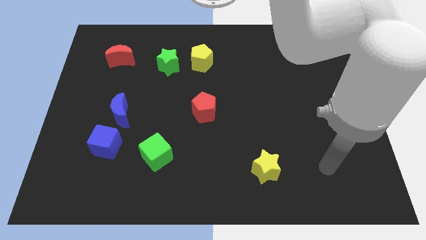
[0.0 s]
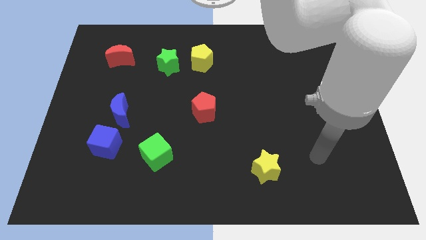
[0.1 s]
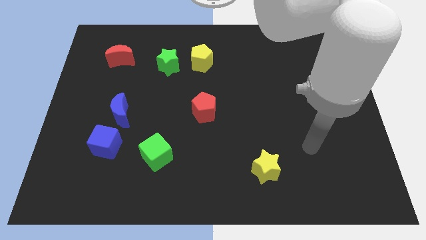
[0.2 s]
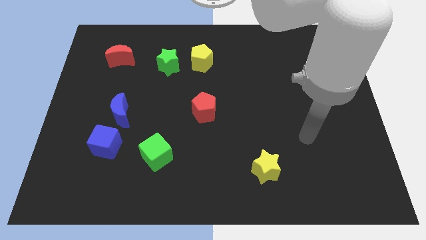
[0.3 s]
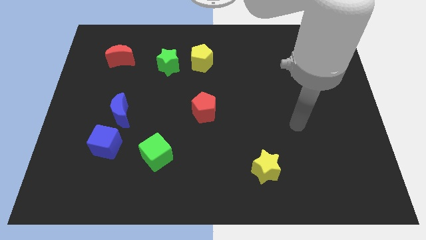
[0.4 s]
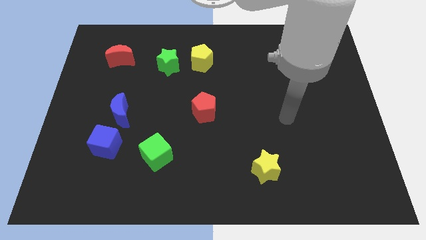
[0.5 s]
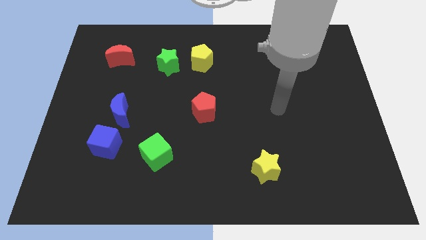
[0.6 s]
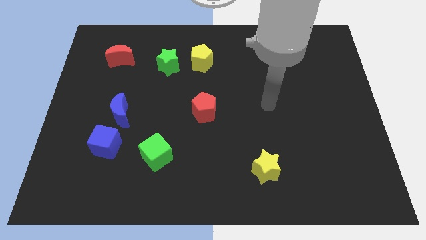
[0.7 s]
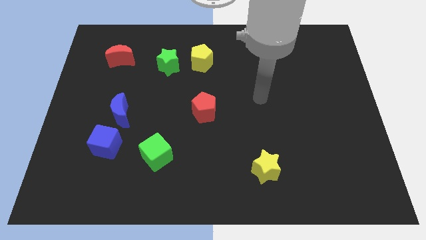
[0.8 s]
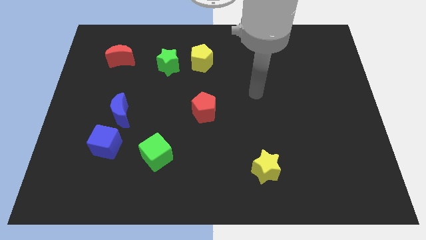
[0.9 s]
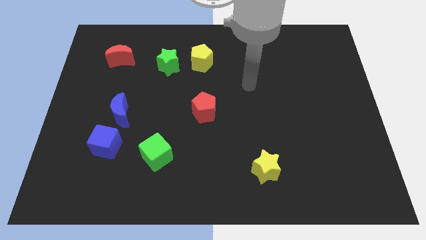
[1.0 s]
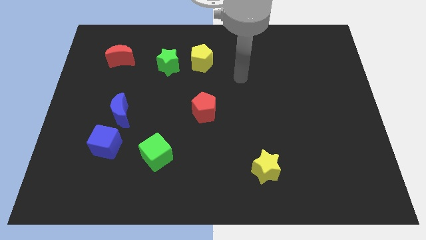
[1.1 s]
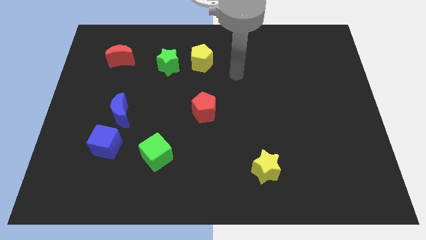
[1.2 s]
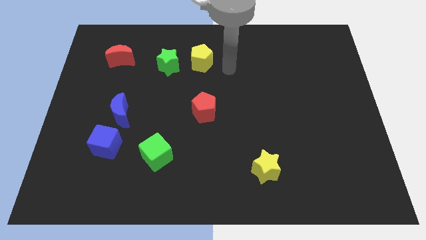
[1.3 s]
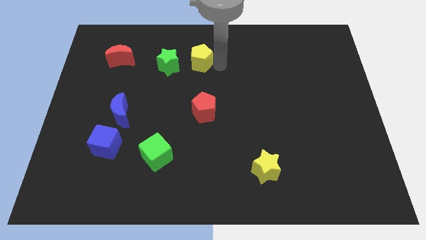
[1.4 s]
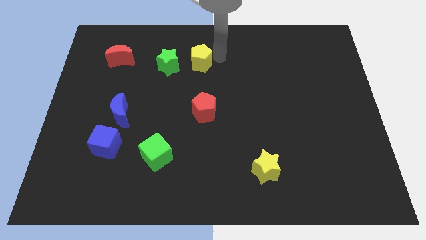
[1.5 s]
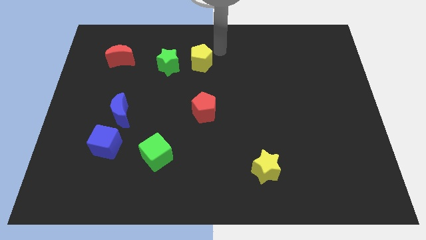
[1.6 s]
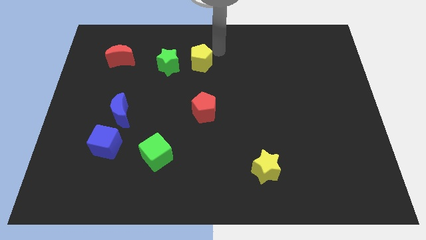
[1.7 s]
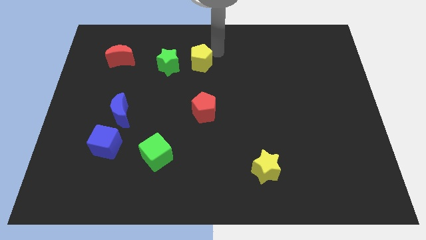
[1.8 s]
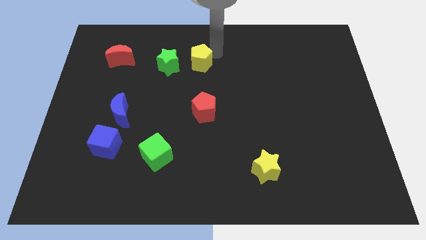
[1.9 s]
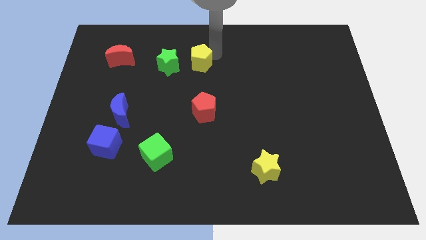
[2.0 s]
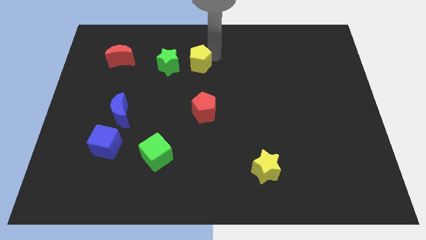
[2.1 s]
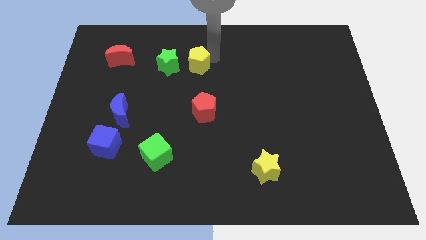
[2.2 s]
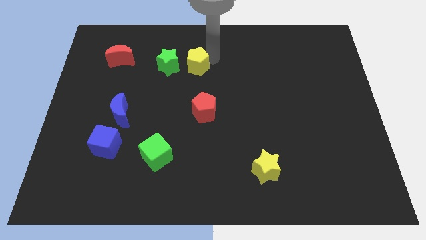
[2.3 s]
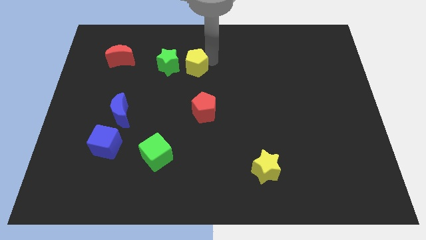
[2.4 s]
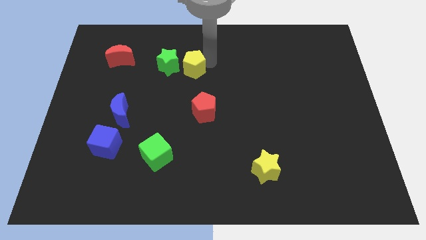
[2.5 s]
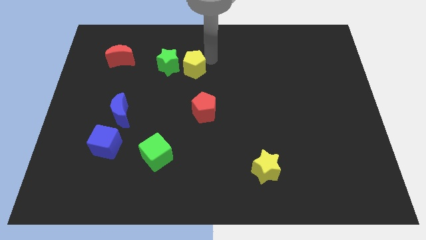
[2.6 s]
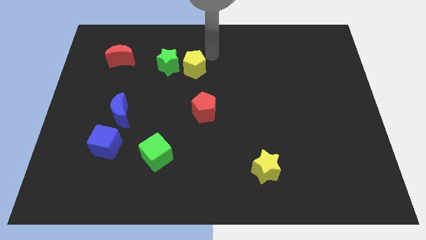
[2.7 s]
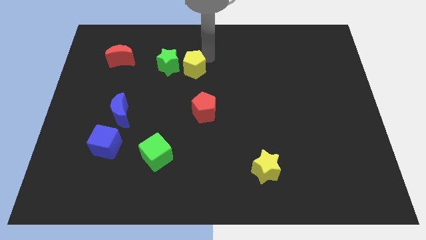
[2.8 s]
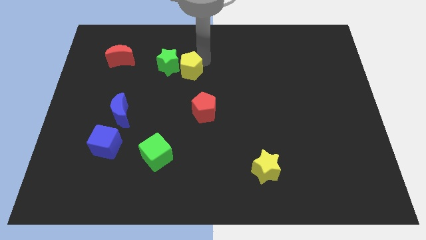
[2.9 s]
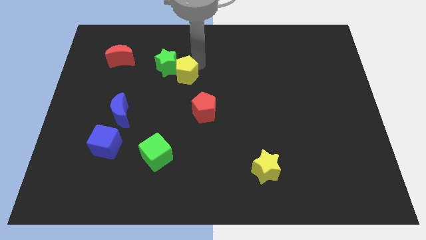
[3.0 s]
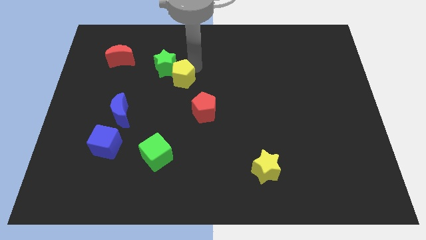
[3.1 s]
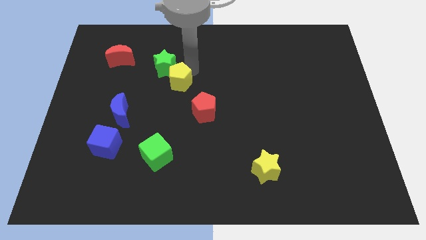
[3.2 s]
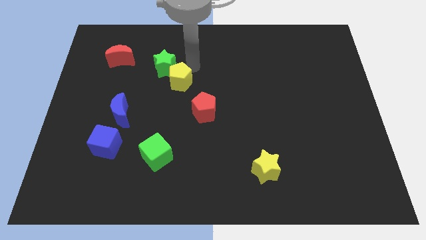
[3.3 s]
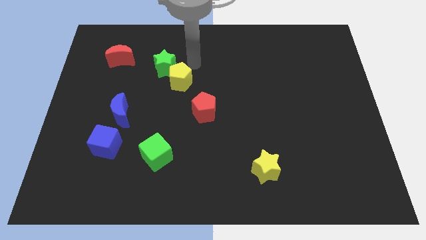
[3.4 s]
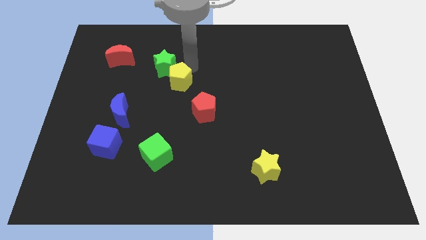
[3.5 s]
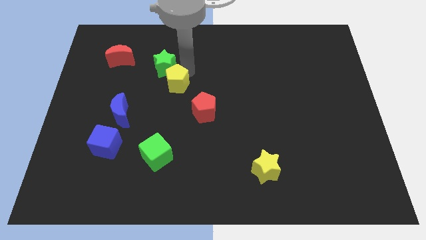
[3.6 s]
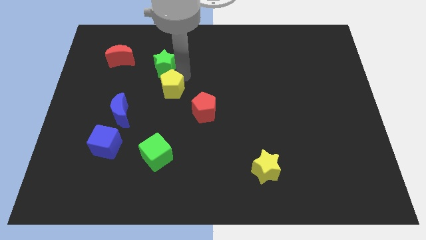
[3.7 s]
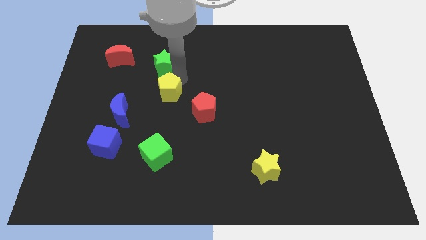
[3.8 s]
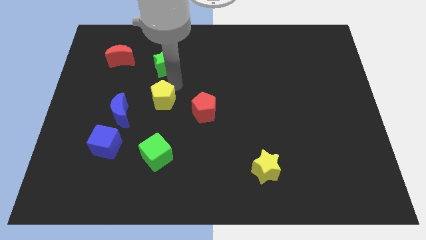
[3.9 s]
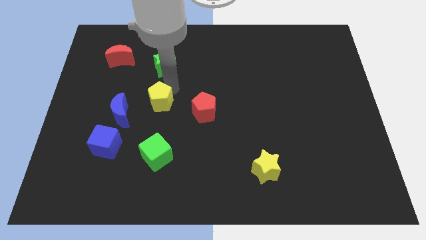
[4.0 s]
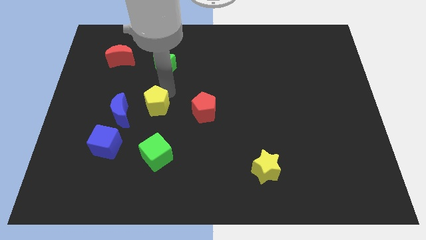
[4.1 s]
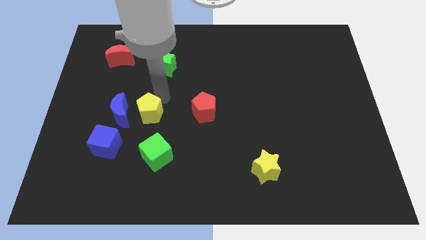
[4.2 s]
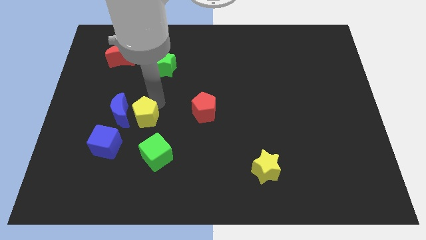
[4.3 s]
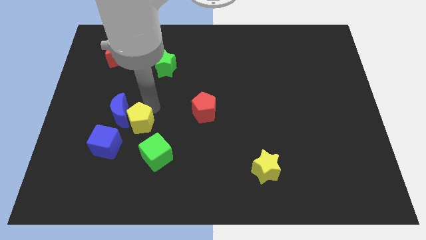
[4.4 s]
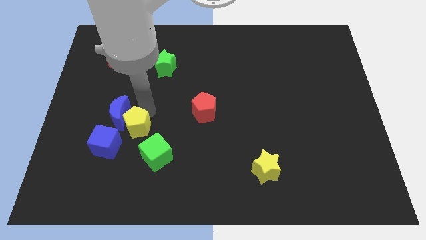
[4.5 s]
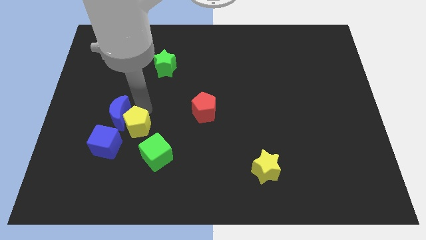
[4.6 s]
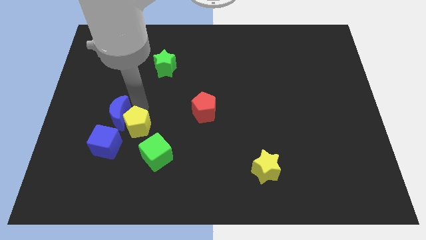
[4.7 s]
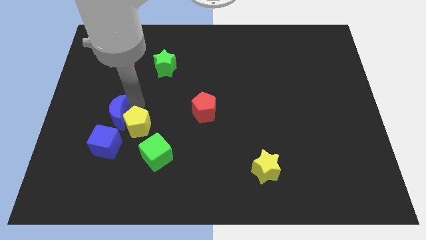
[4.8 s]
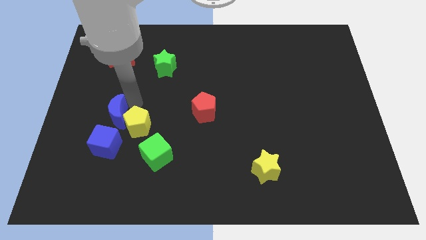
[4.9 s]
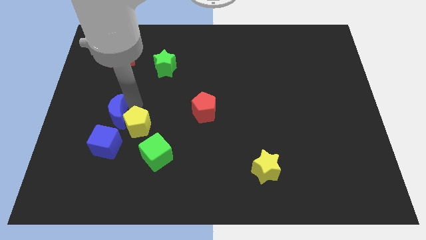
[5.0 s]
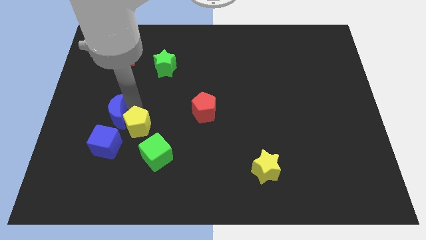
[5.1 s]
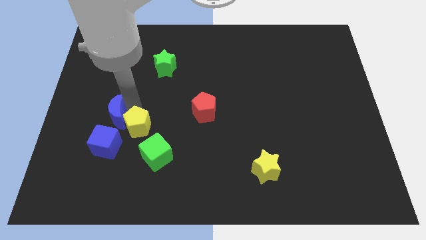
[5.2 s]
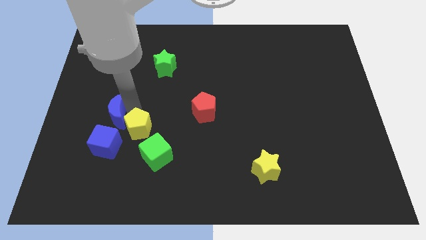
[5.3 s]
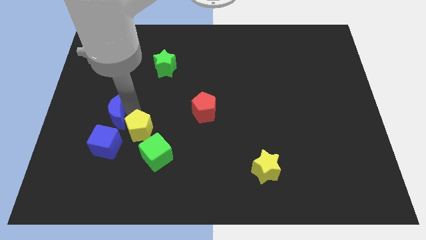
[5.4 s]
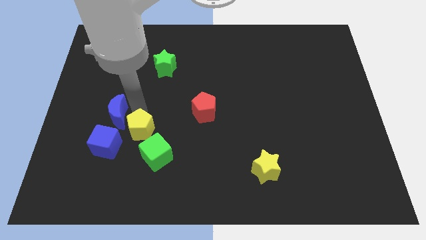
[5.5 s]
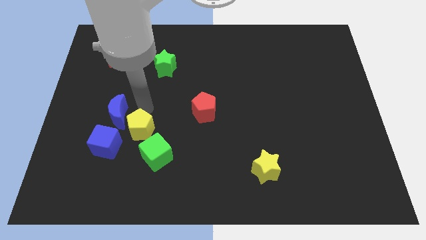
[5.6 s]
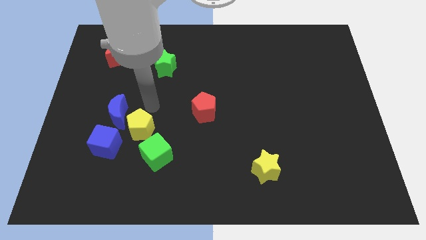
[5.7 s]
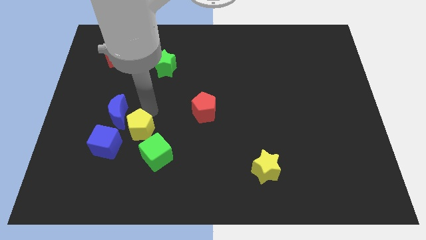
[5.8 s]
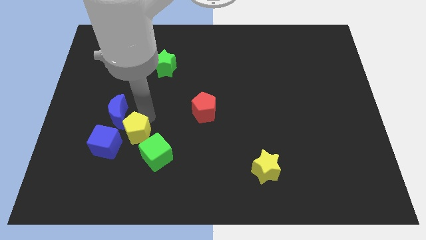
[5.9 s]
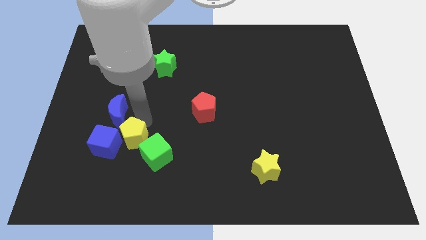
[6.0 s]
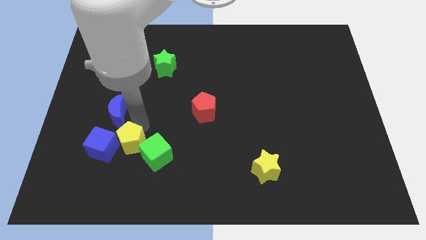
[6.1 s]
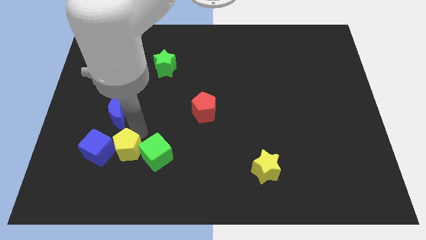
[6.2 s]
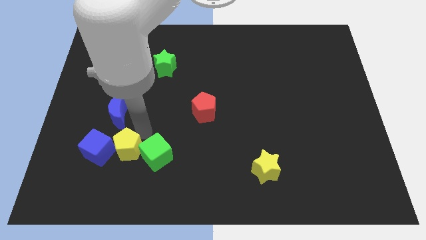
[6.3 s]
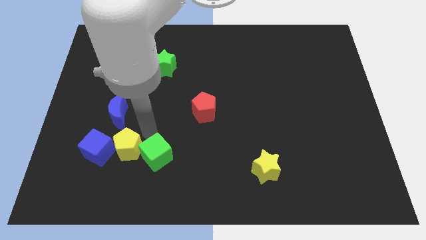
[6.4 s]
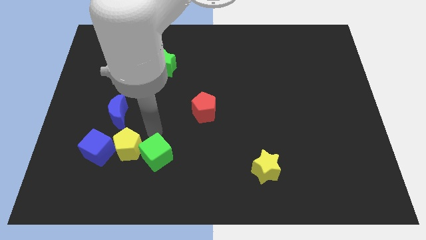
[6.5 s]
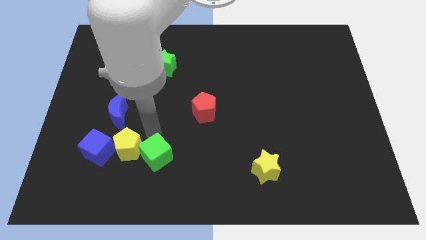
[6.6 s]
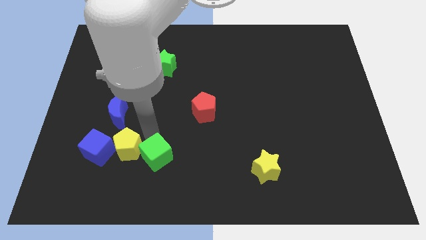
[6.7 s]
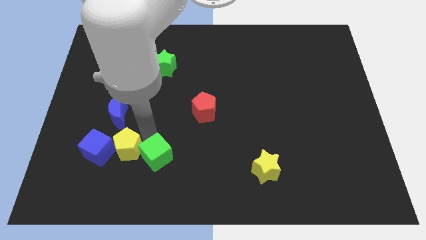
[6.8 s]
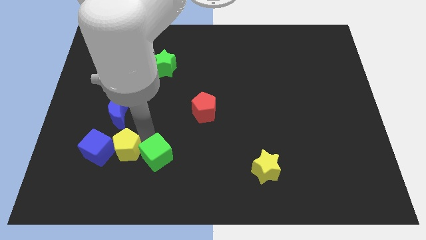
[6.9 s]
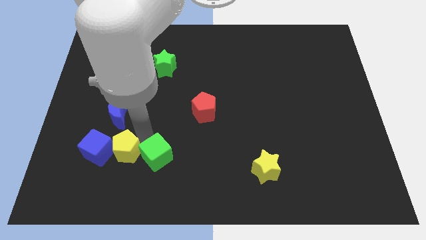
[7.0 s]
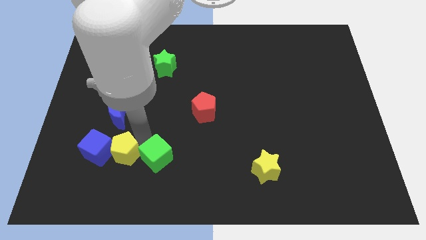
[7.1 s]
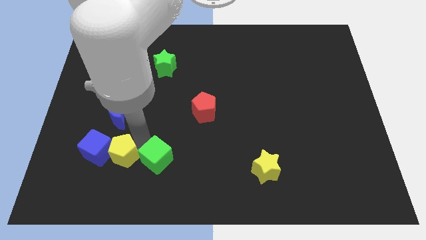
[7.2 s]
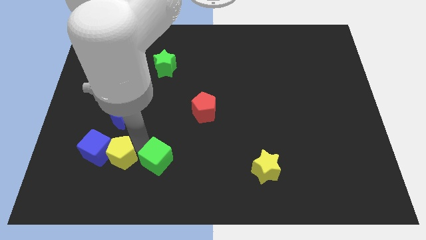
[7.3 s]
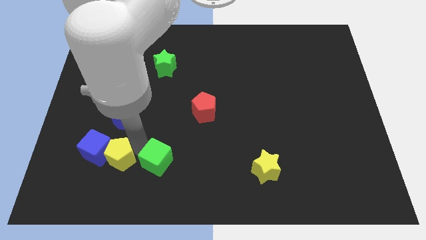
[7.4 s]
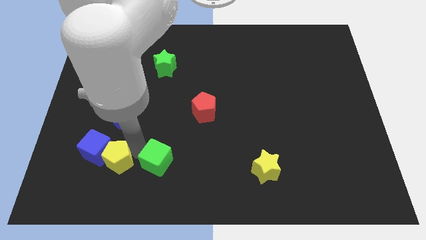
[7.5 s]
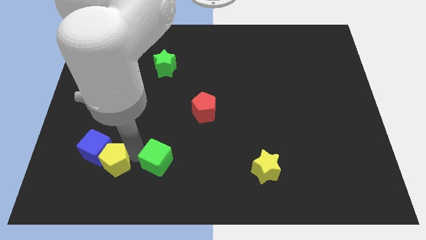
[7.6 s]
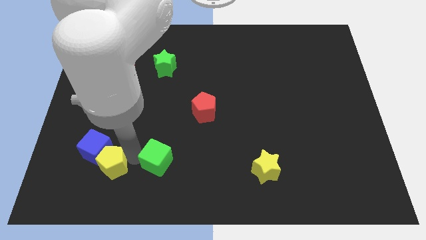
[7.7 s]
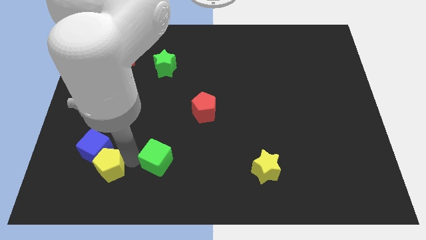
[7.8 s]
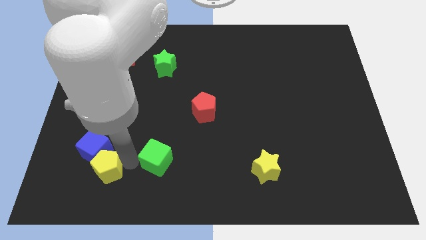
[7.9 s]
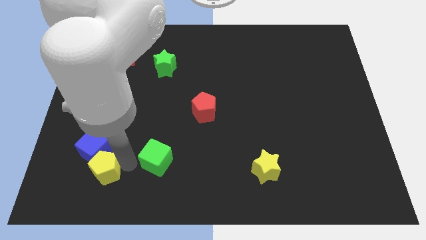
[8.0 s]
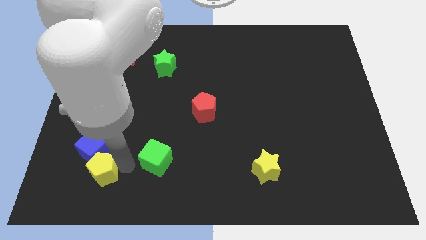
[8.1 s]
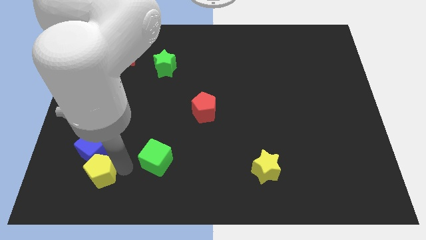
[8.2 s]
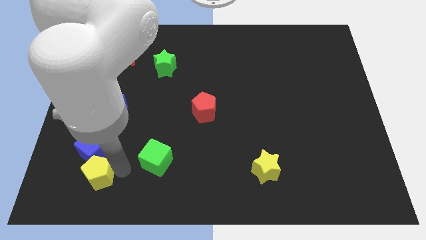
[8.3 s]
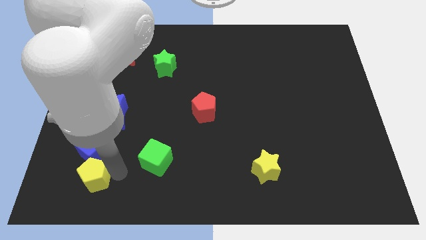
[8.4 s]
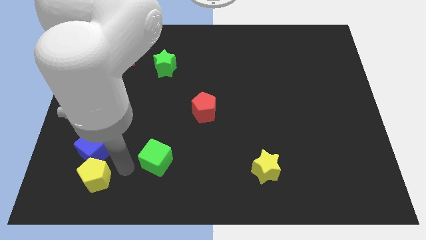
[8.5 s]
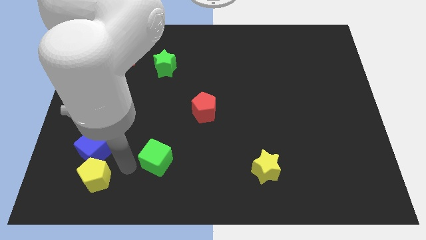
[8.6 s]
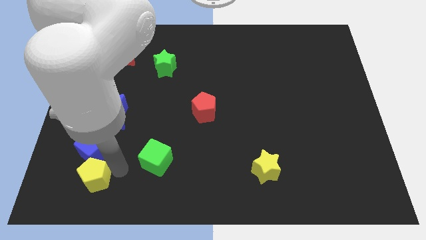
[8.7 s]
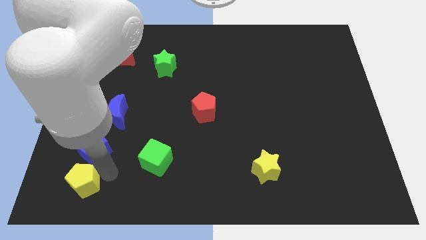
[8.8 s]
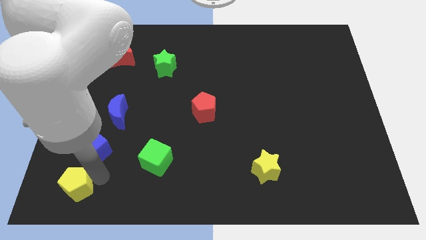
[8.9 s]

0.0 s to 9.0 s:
put the yellow pentagon to the bottom left
